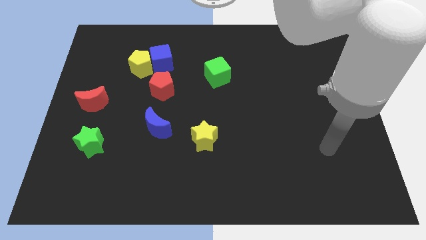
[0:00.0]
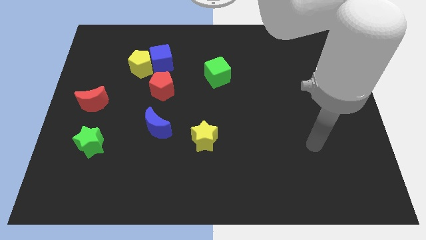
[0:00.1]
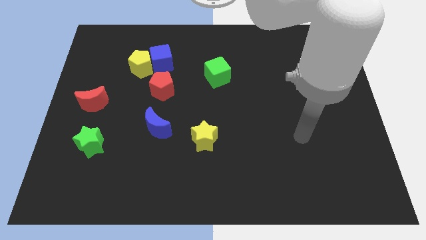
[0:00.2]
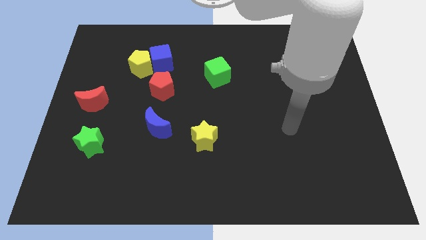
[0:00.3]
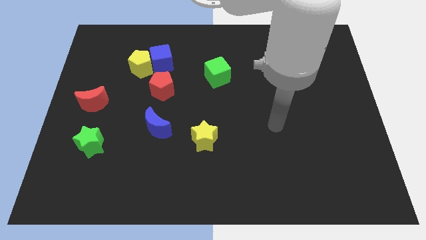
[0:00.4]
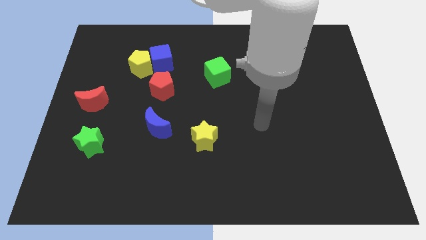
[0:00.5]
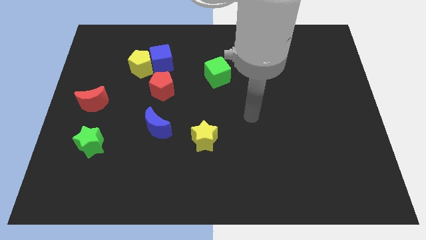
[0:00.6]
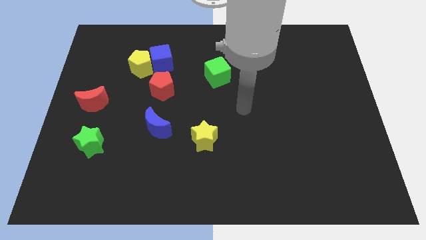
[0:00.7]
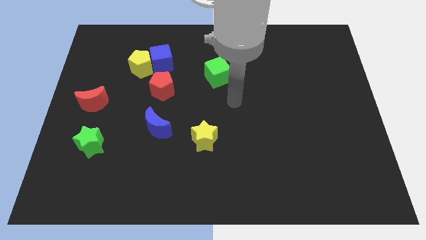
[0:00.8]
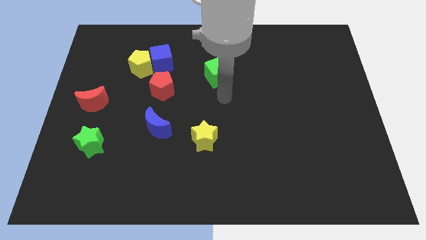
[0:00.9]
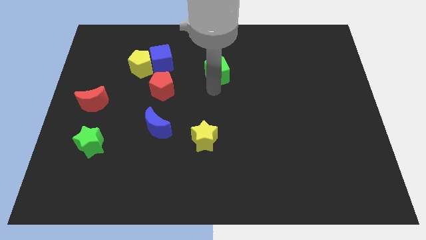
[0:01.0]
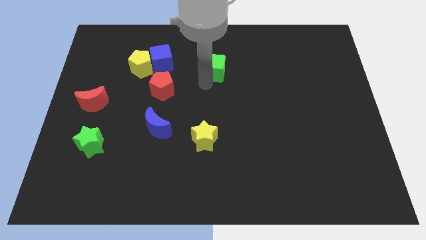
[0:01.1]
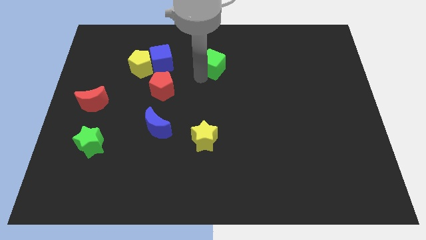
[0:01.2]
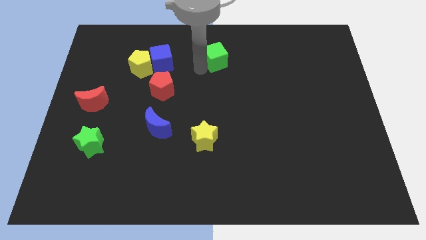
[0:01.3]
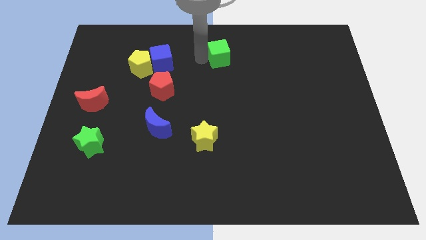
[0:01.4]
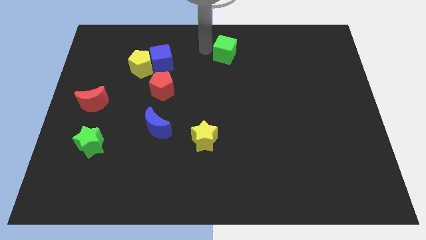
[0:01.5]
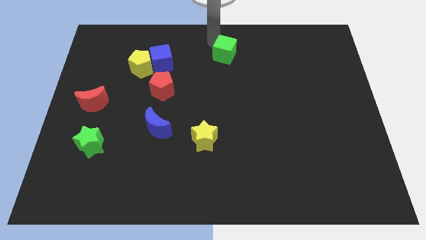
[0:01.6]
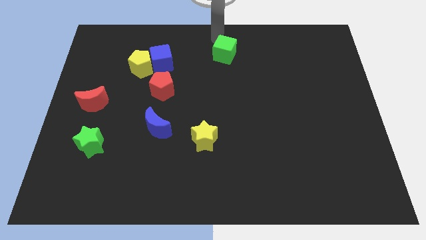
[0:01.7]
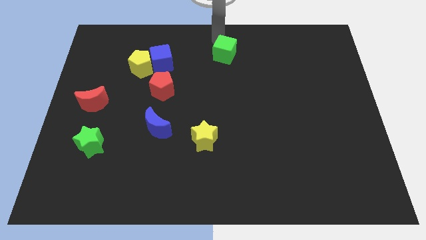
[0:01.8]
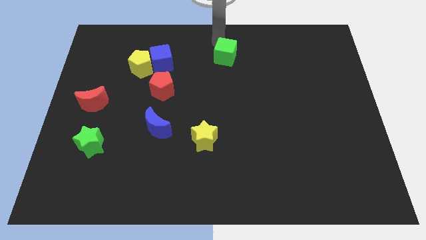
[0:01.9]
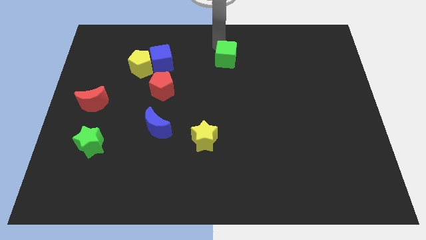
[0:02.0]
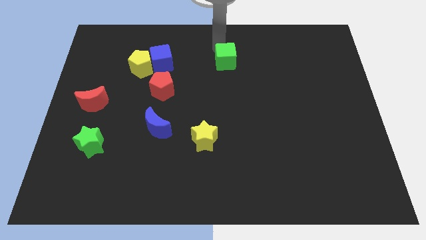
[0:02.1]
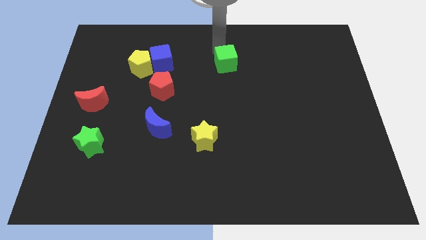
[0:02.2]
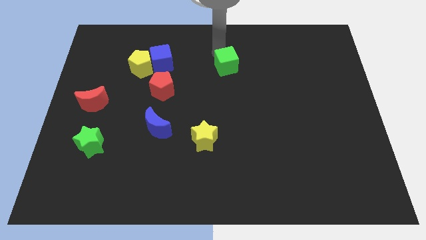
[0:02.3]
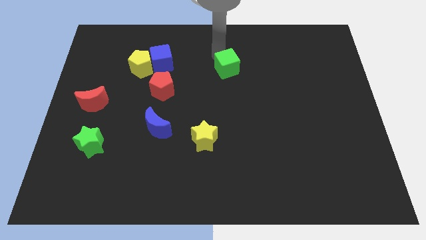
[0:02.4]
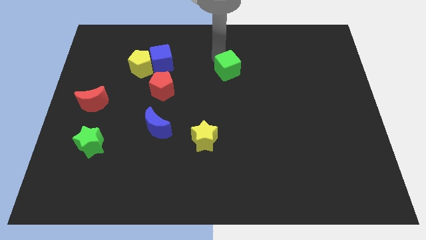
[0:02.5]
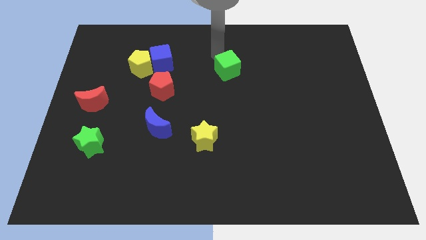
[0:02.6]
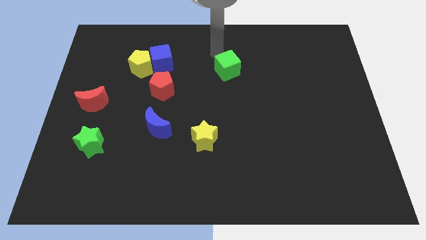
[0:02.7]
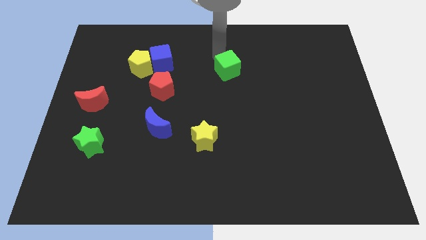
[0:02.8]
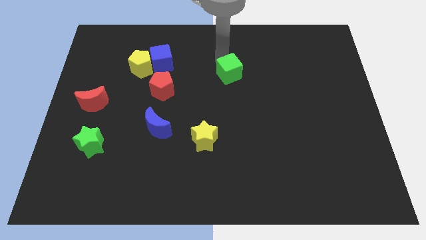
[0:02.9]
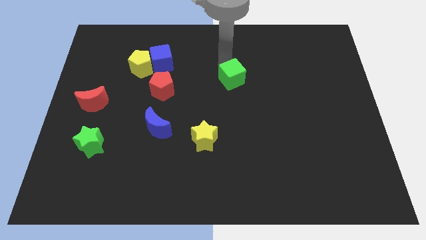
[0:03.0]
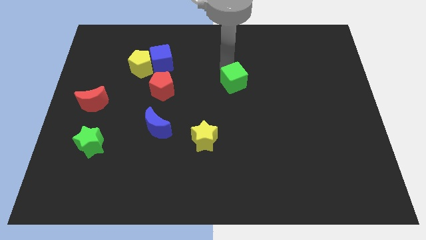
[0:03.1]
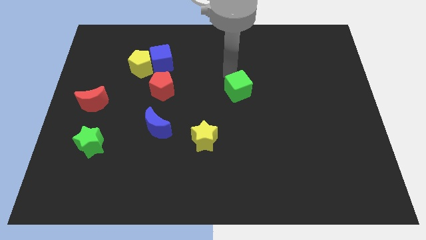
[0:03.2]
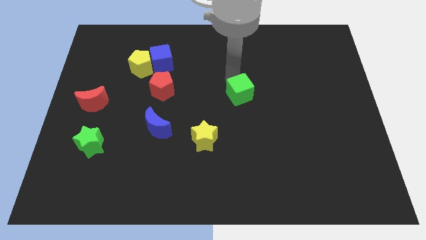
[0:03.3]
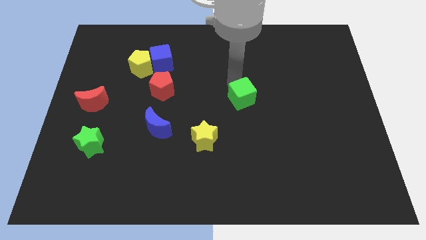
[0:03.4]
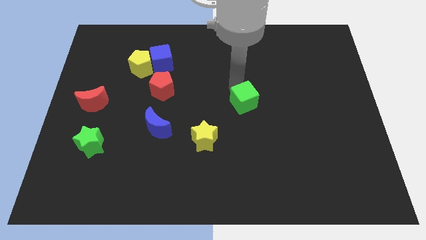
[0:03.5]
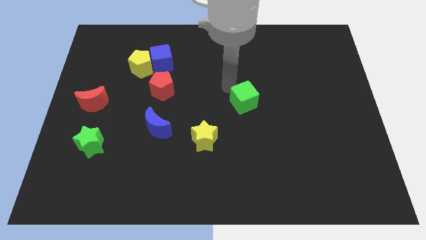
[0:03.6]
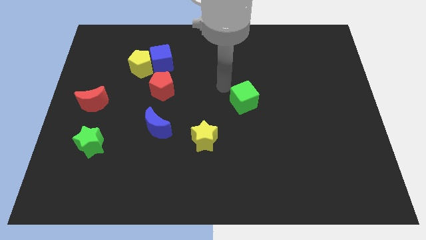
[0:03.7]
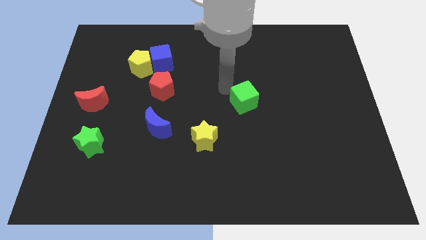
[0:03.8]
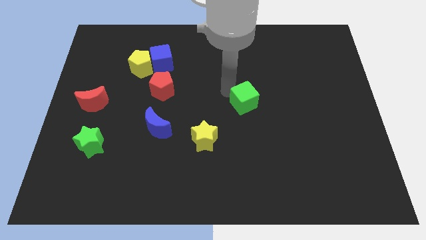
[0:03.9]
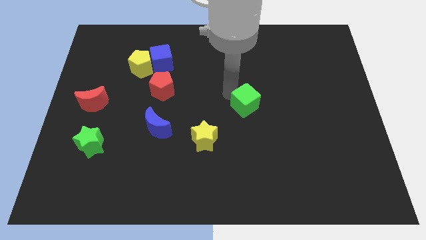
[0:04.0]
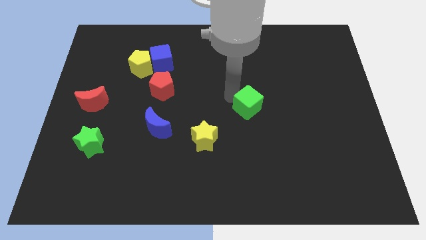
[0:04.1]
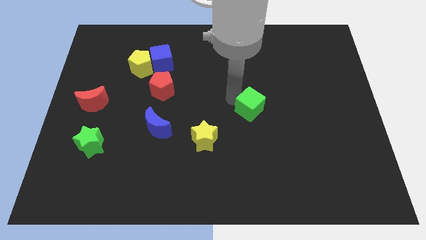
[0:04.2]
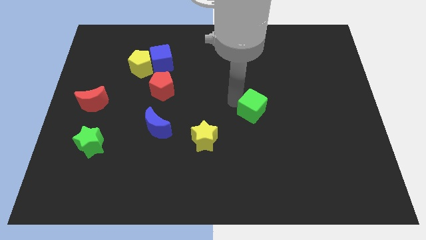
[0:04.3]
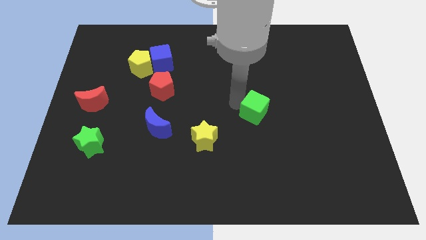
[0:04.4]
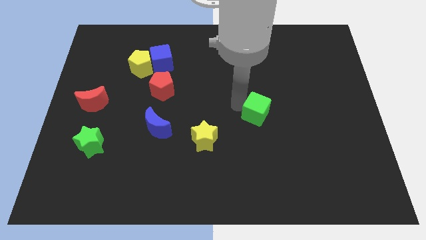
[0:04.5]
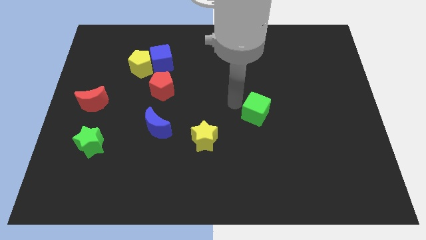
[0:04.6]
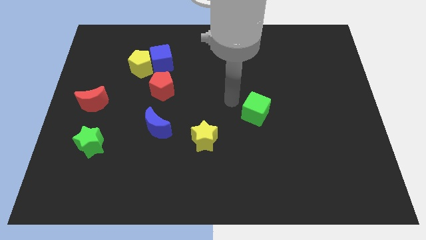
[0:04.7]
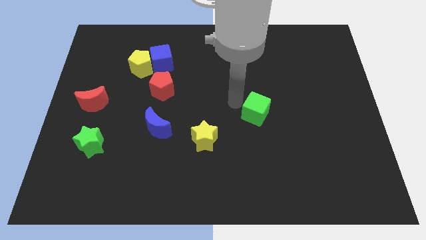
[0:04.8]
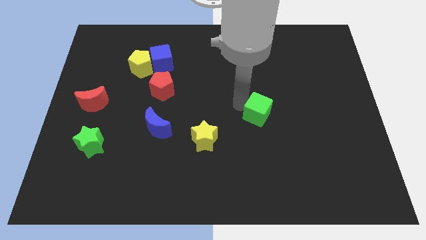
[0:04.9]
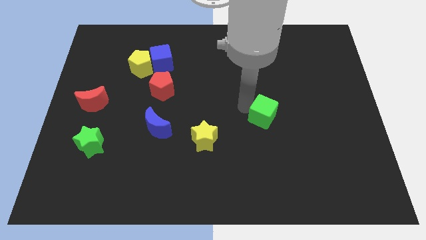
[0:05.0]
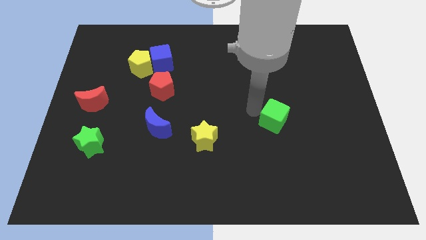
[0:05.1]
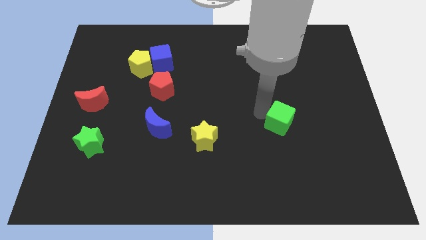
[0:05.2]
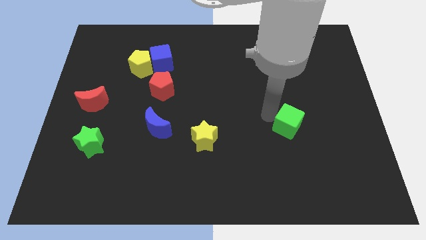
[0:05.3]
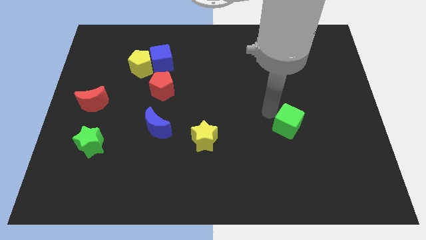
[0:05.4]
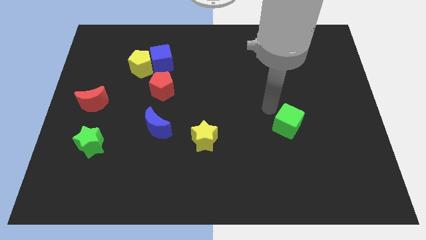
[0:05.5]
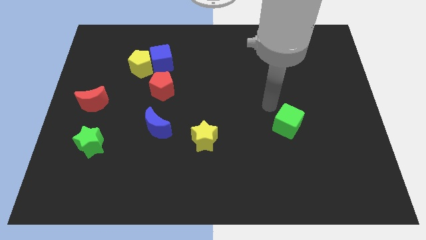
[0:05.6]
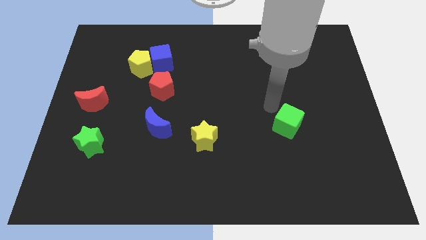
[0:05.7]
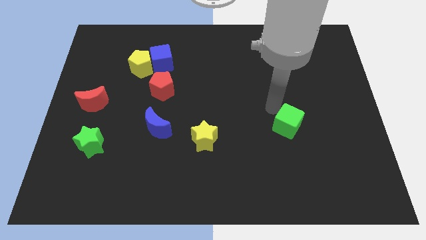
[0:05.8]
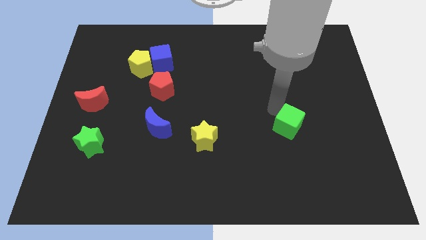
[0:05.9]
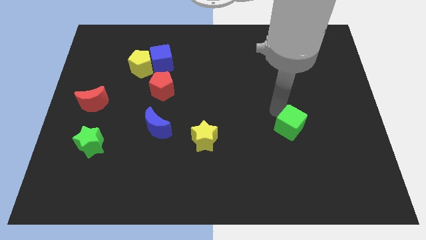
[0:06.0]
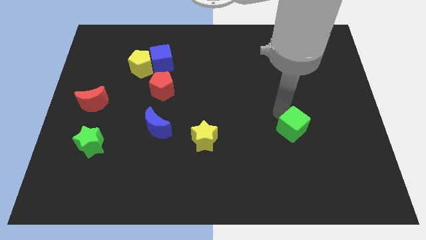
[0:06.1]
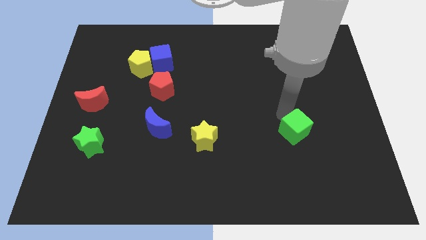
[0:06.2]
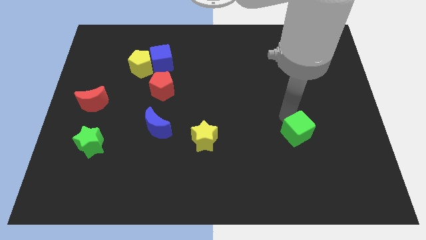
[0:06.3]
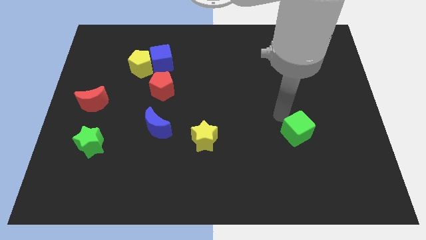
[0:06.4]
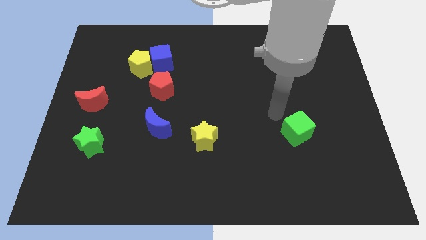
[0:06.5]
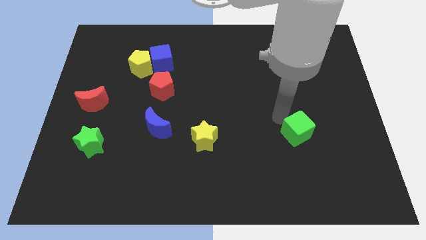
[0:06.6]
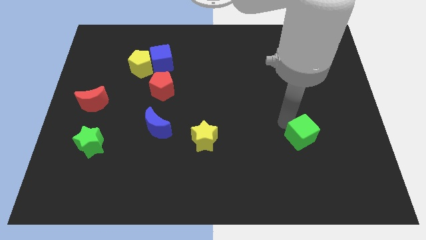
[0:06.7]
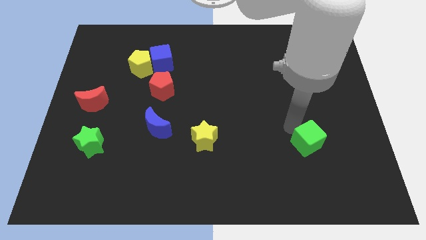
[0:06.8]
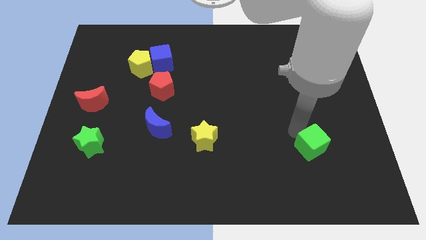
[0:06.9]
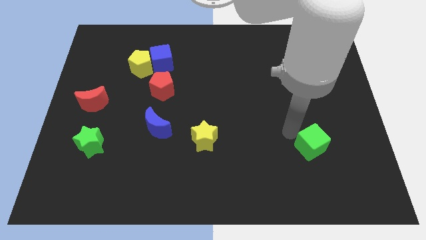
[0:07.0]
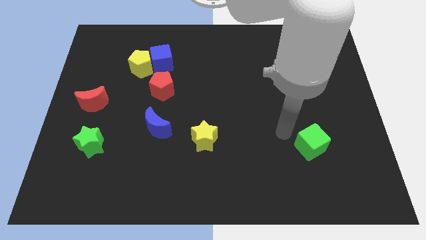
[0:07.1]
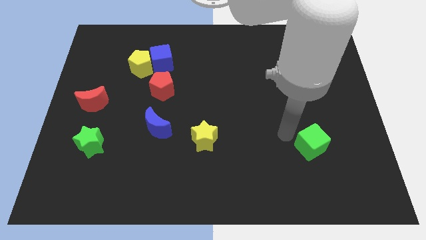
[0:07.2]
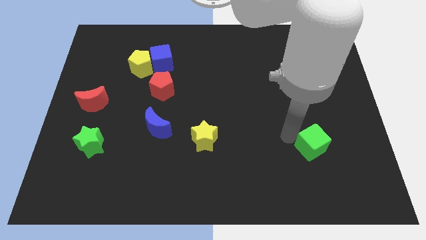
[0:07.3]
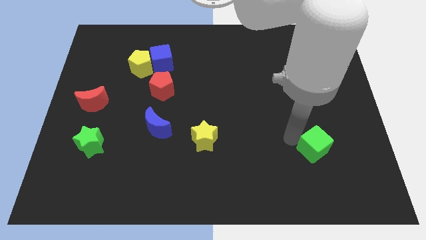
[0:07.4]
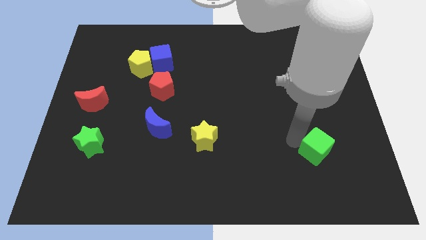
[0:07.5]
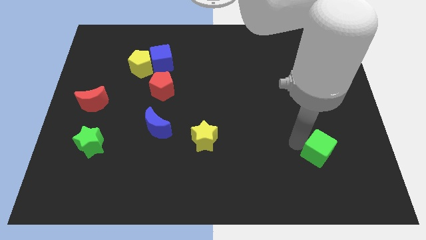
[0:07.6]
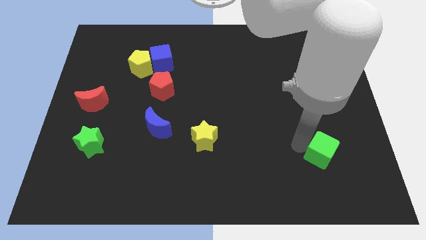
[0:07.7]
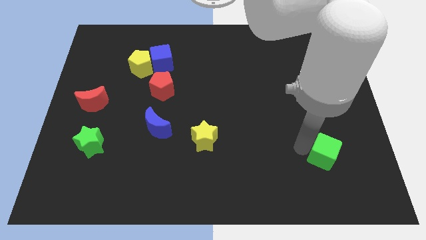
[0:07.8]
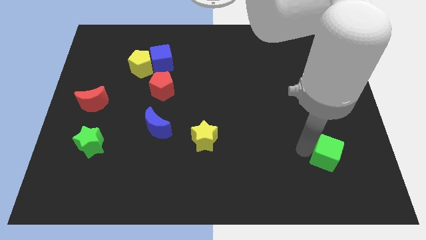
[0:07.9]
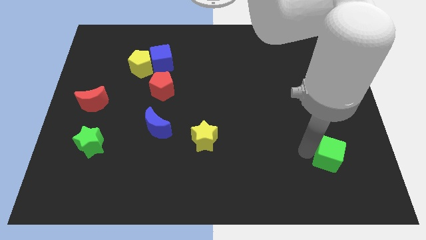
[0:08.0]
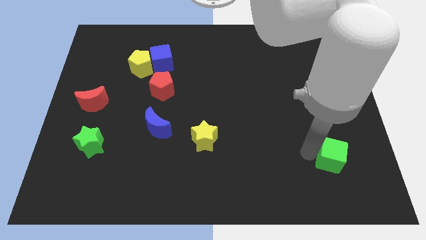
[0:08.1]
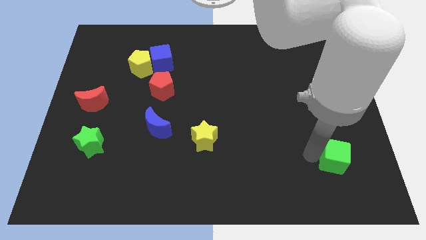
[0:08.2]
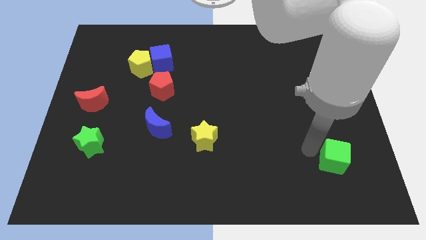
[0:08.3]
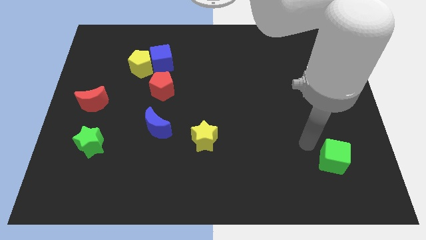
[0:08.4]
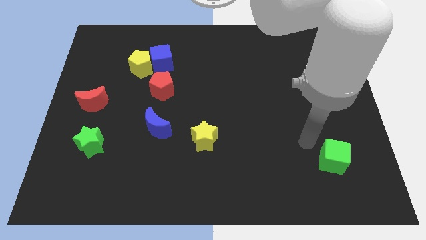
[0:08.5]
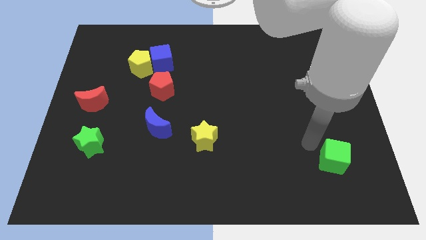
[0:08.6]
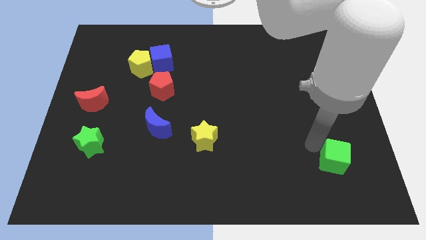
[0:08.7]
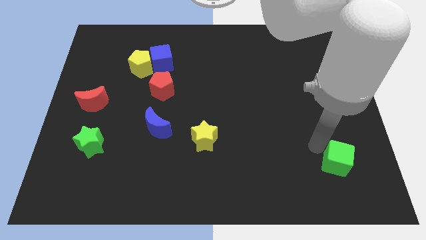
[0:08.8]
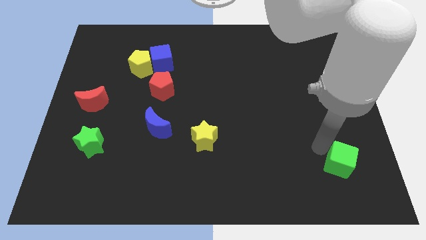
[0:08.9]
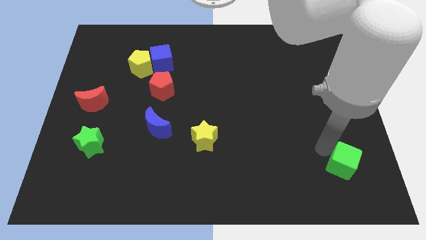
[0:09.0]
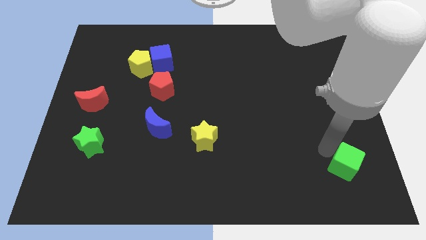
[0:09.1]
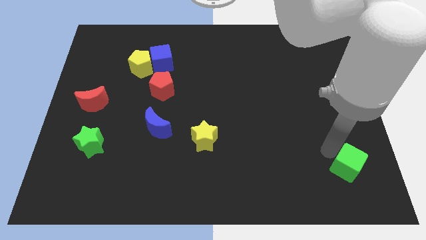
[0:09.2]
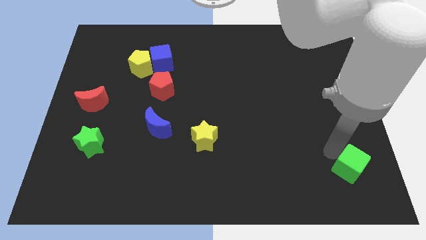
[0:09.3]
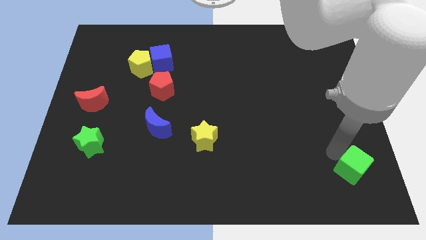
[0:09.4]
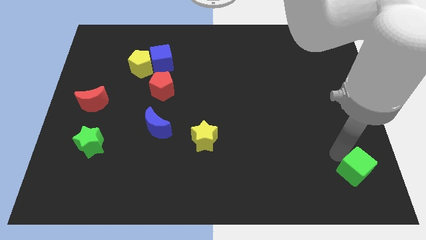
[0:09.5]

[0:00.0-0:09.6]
put the green cube to the bottom right
